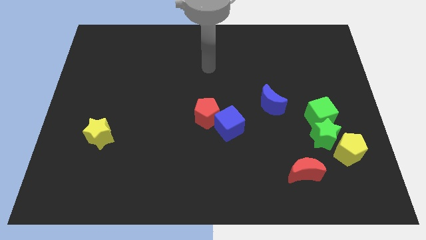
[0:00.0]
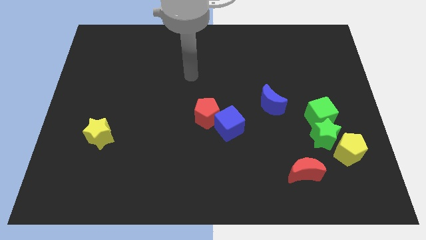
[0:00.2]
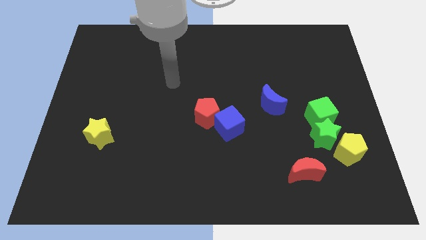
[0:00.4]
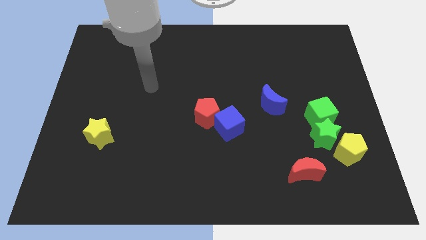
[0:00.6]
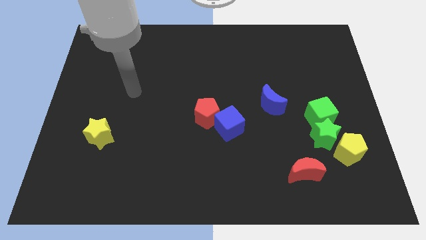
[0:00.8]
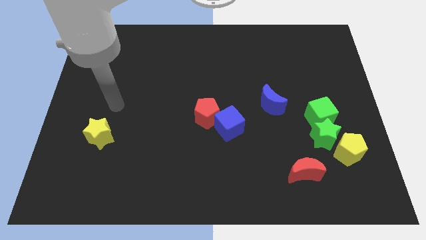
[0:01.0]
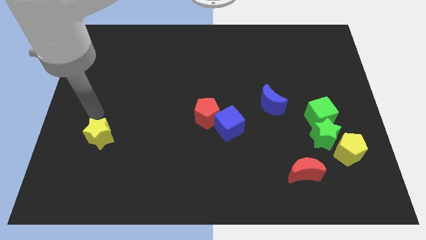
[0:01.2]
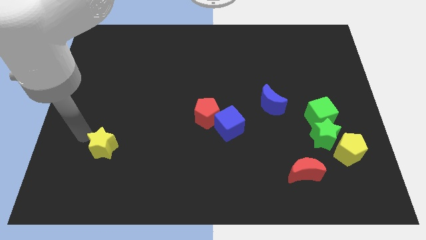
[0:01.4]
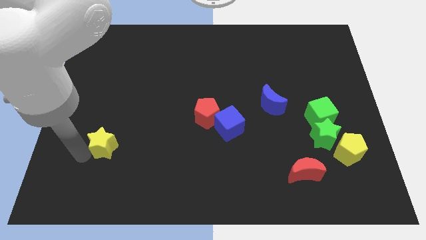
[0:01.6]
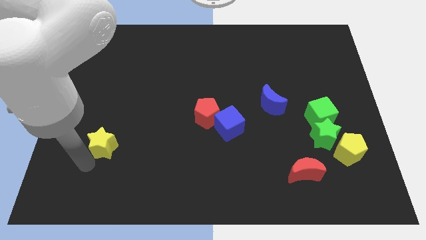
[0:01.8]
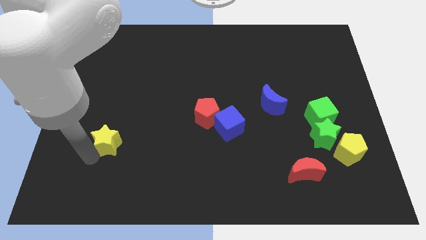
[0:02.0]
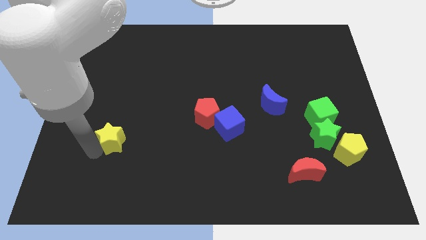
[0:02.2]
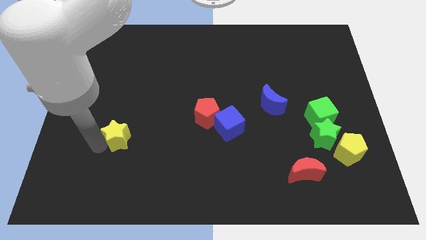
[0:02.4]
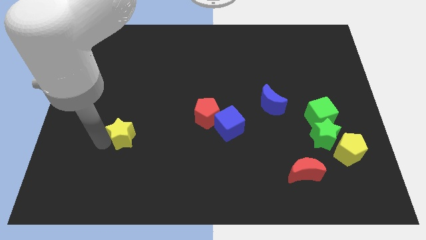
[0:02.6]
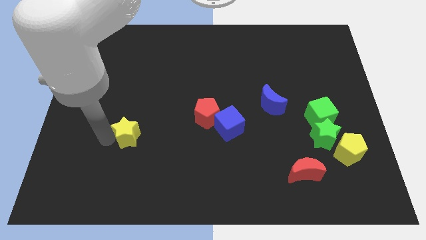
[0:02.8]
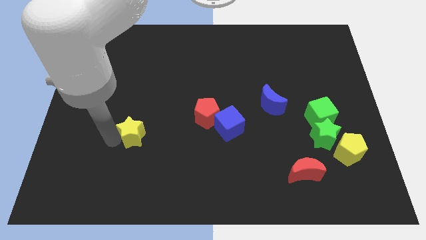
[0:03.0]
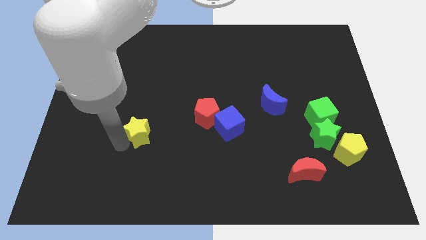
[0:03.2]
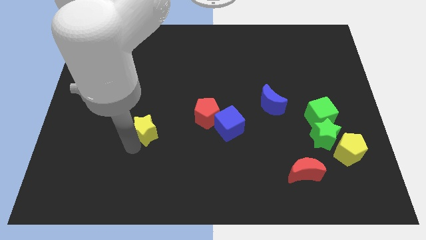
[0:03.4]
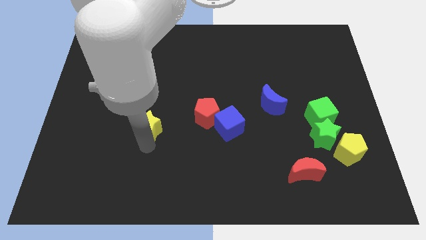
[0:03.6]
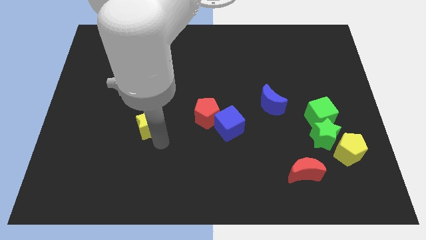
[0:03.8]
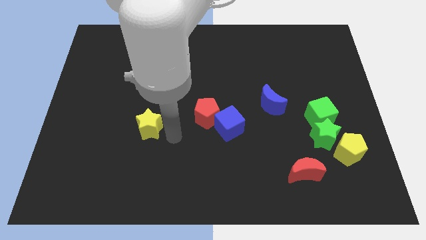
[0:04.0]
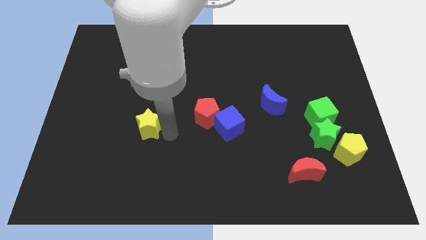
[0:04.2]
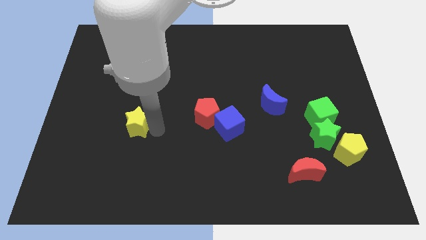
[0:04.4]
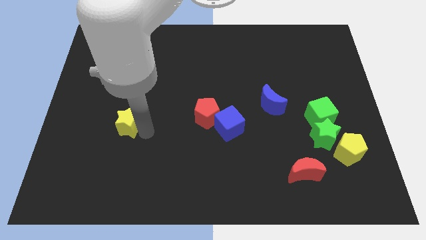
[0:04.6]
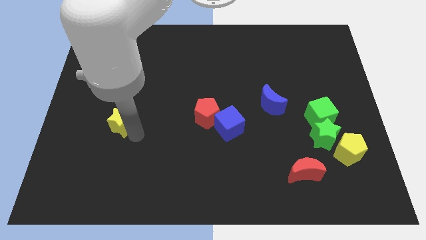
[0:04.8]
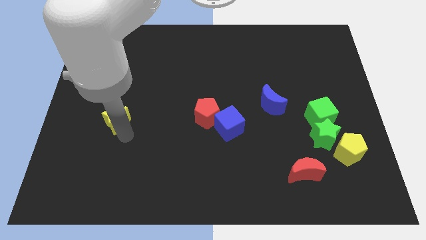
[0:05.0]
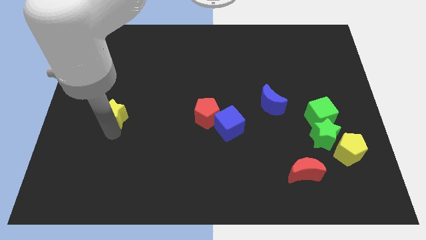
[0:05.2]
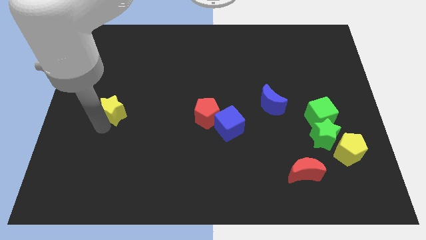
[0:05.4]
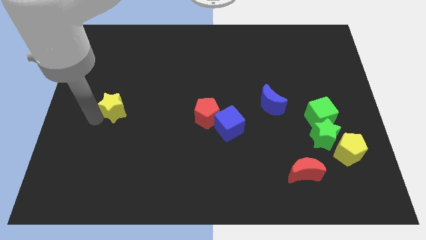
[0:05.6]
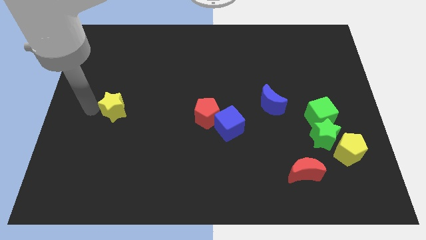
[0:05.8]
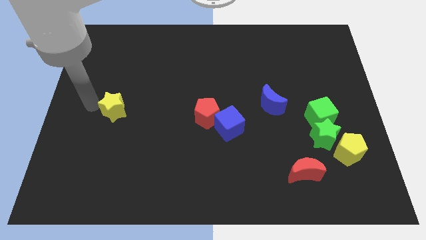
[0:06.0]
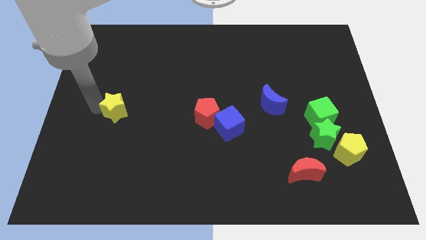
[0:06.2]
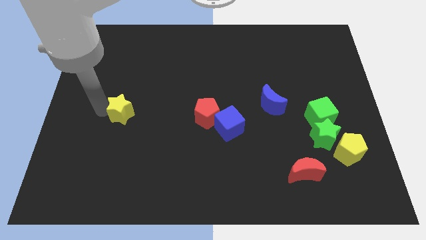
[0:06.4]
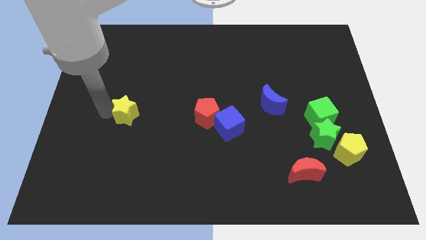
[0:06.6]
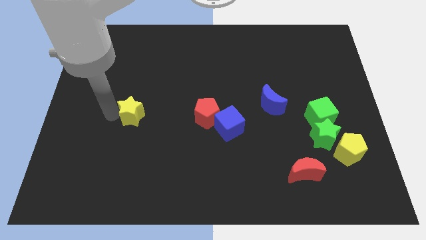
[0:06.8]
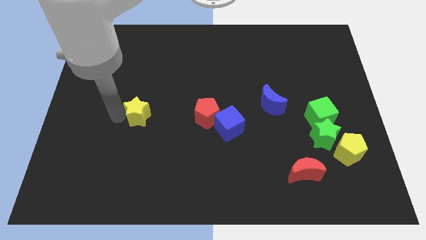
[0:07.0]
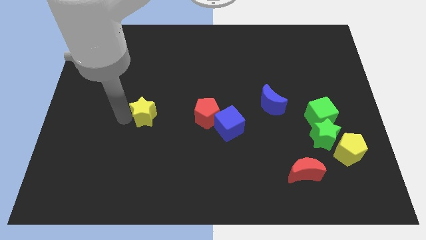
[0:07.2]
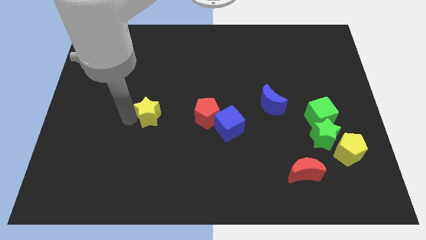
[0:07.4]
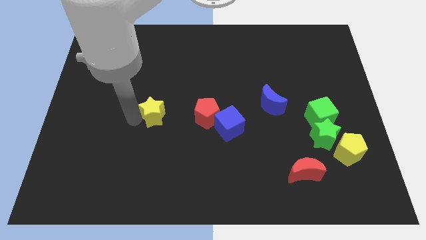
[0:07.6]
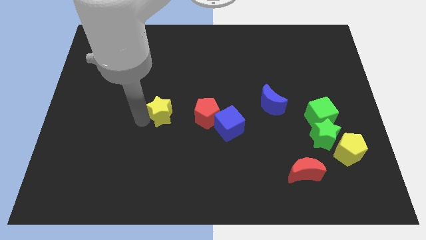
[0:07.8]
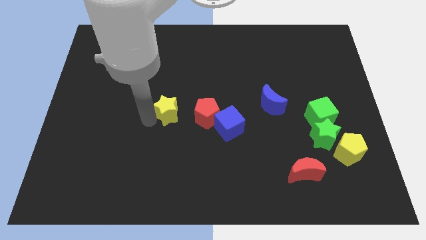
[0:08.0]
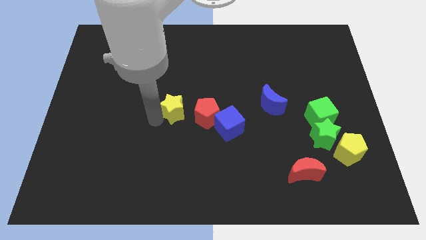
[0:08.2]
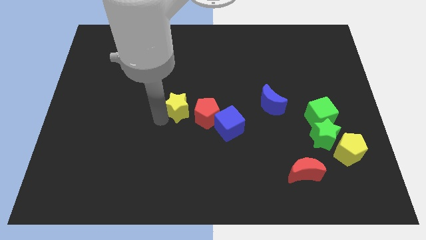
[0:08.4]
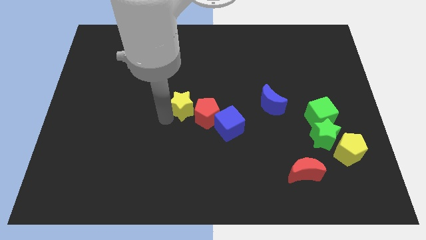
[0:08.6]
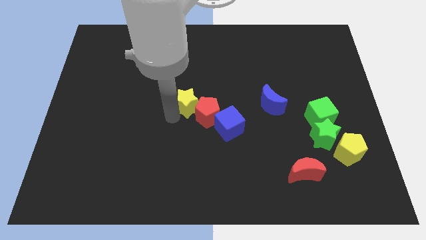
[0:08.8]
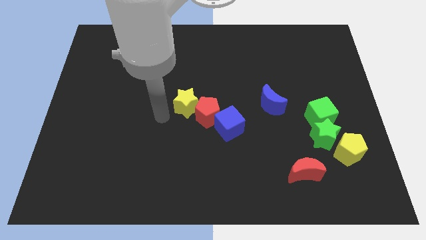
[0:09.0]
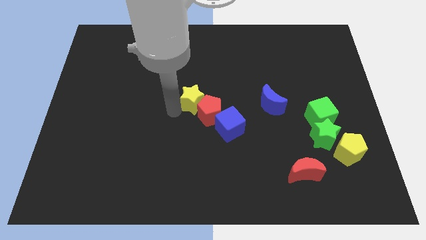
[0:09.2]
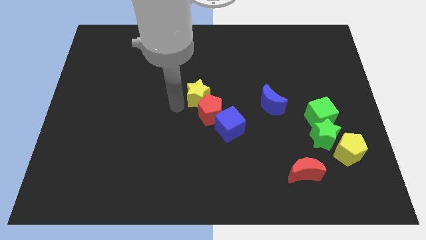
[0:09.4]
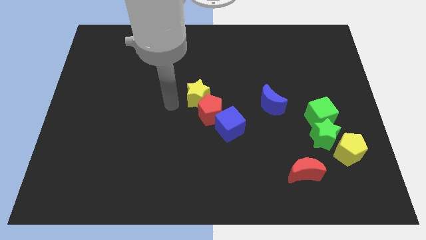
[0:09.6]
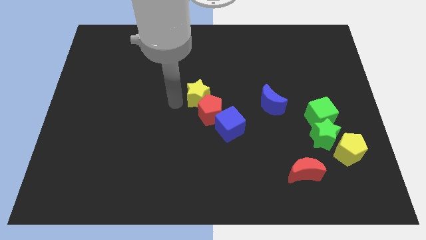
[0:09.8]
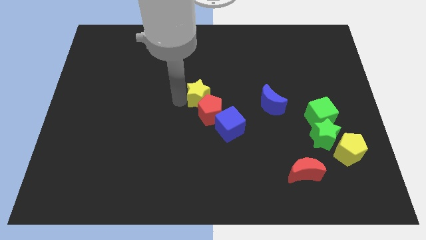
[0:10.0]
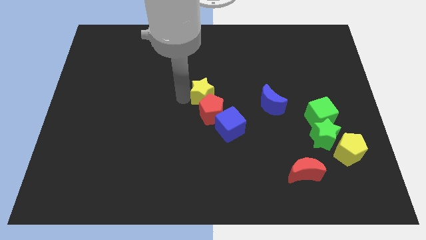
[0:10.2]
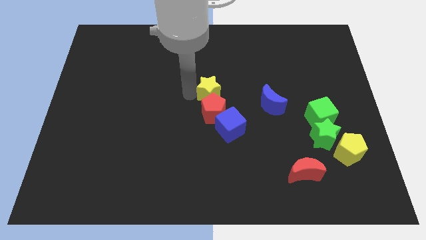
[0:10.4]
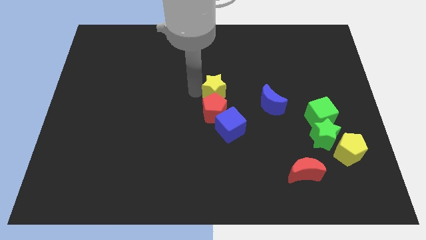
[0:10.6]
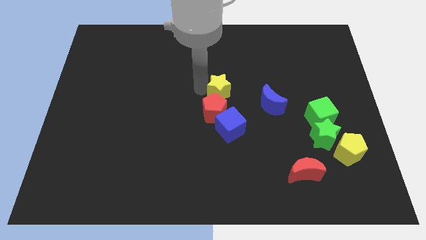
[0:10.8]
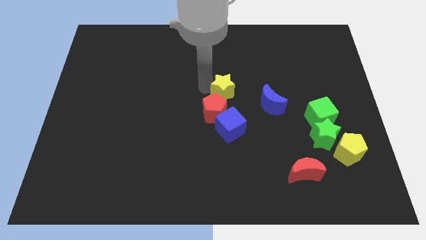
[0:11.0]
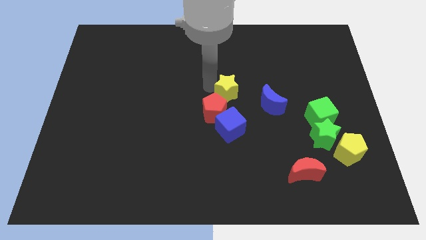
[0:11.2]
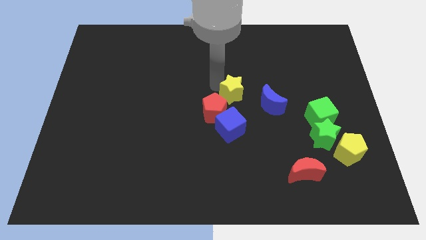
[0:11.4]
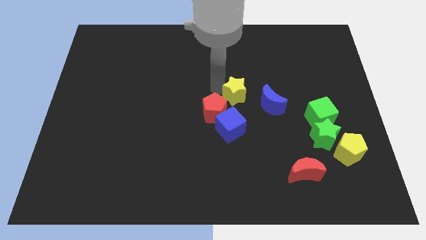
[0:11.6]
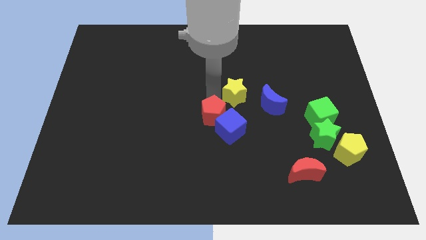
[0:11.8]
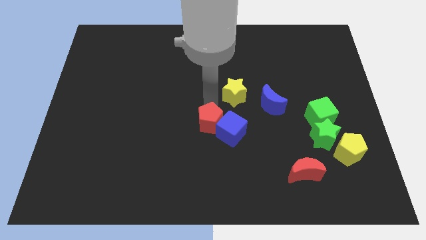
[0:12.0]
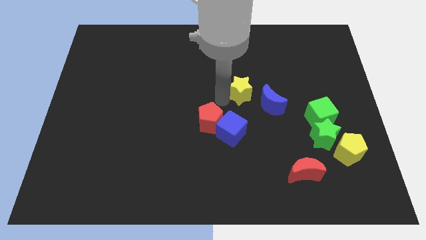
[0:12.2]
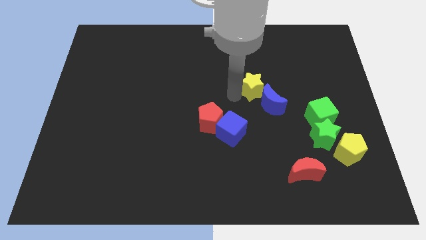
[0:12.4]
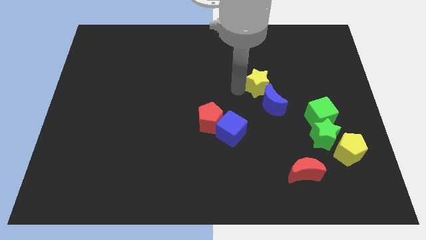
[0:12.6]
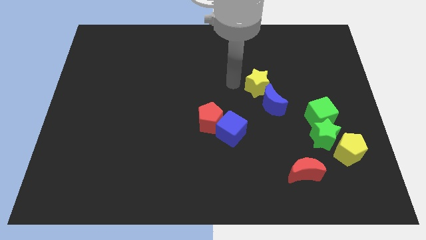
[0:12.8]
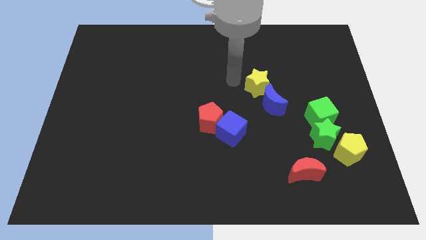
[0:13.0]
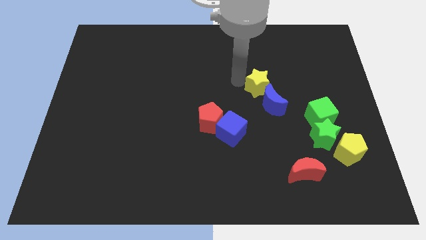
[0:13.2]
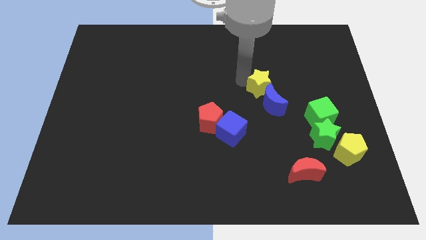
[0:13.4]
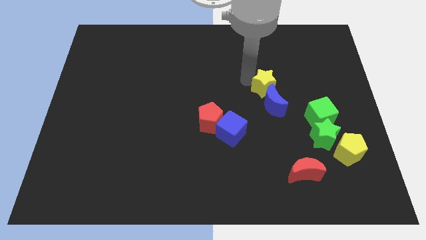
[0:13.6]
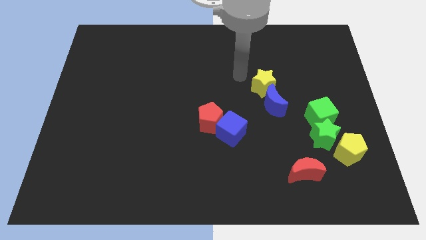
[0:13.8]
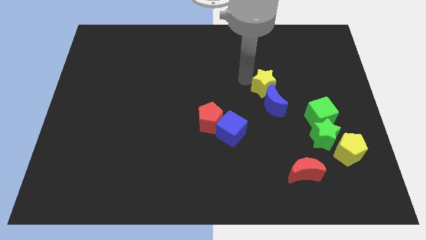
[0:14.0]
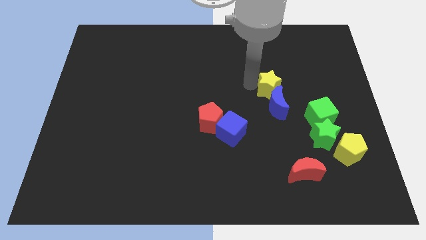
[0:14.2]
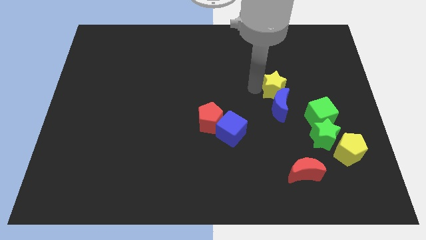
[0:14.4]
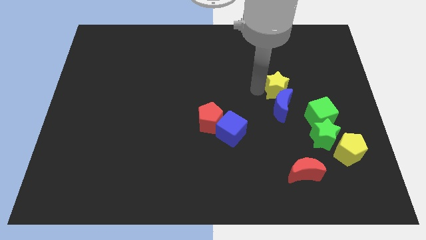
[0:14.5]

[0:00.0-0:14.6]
push the yellow star to the top left side of the green cube

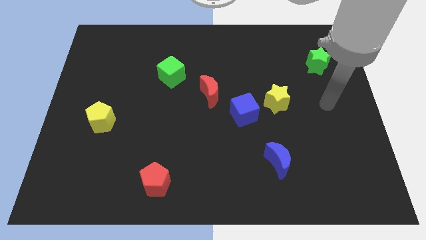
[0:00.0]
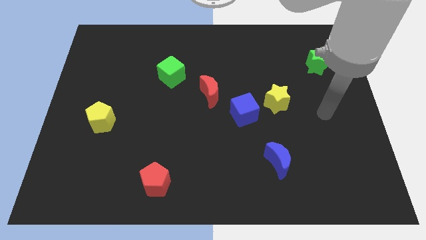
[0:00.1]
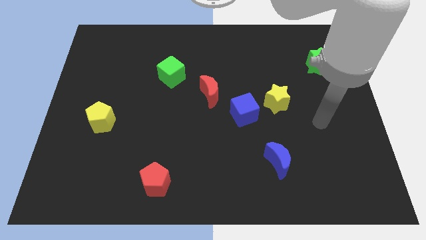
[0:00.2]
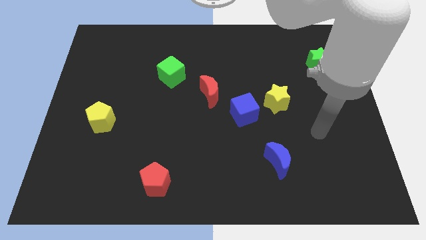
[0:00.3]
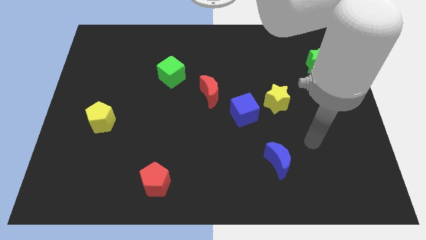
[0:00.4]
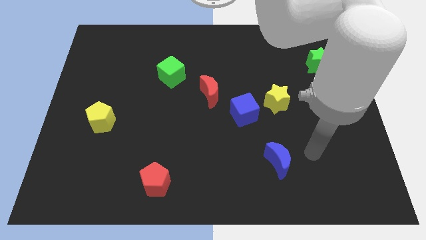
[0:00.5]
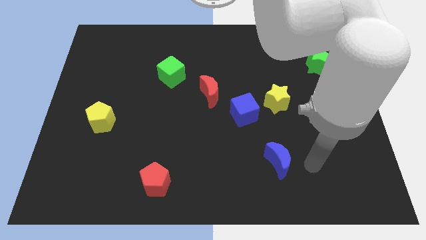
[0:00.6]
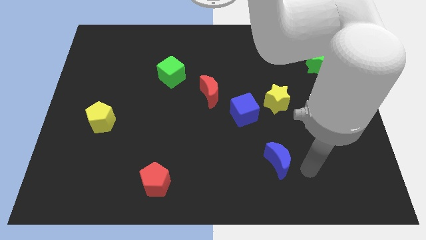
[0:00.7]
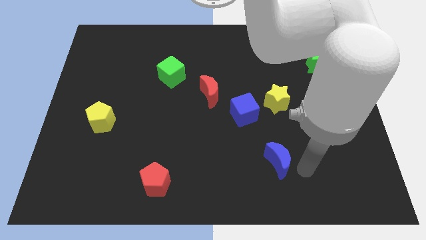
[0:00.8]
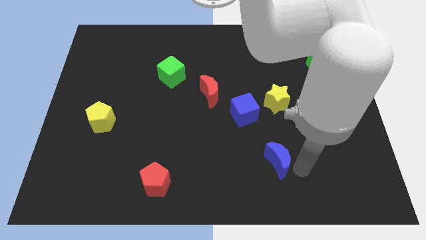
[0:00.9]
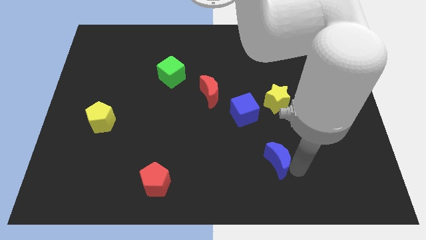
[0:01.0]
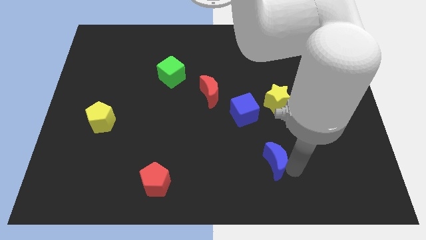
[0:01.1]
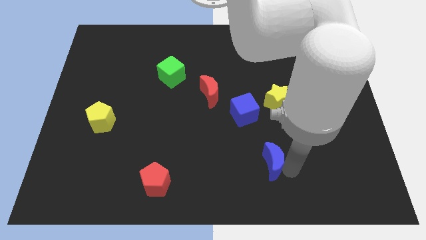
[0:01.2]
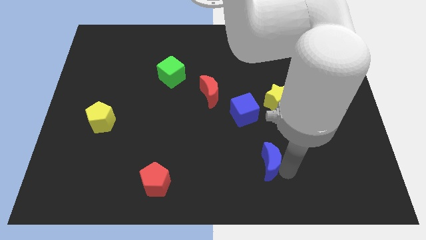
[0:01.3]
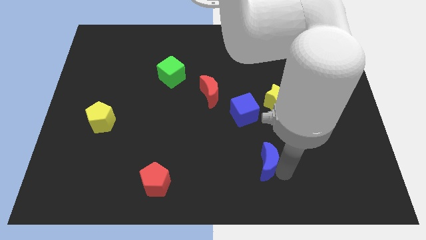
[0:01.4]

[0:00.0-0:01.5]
push the blue moon below the blue cube
